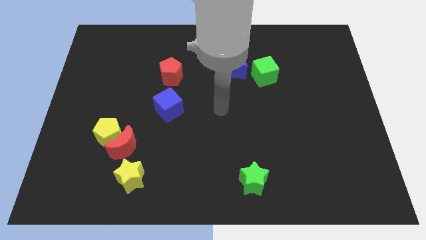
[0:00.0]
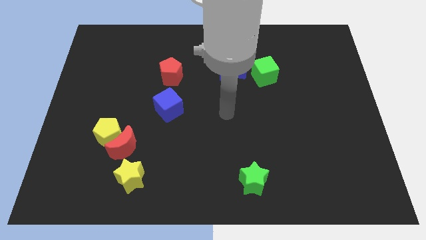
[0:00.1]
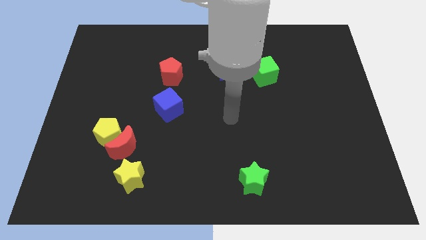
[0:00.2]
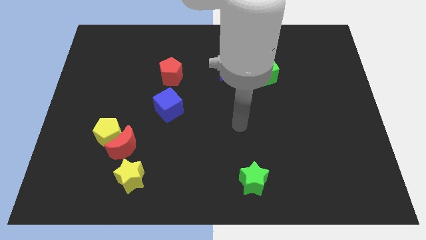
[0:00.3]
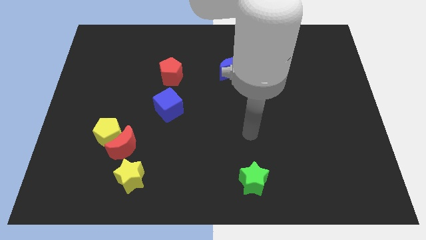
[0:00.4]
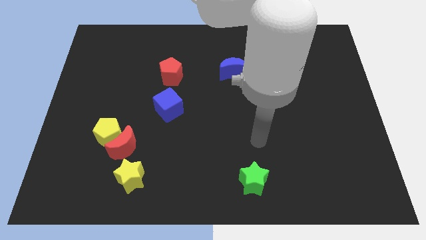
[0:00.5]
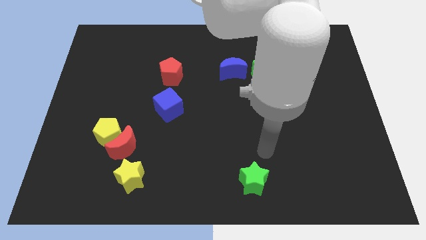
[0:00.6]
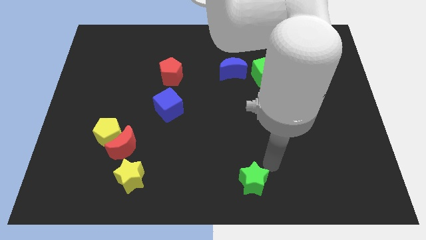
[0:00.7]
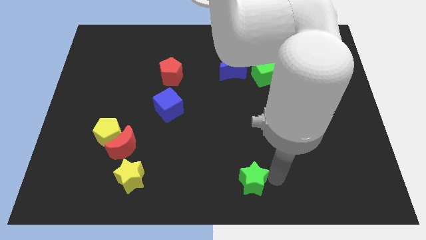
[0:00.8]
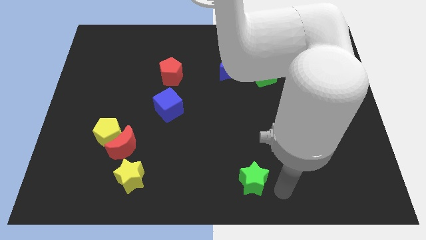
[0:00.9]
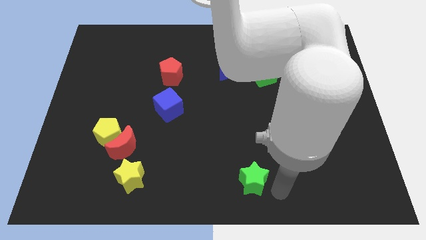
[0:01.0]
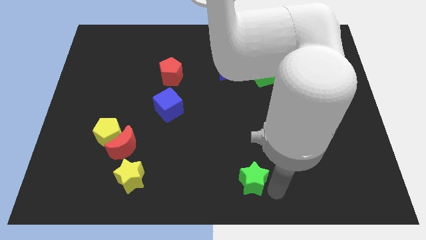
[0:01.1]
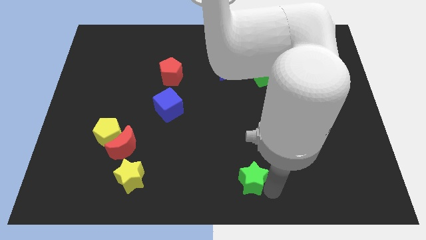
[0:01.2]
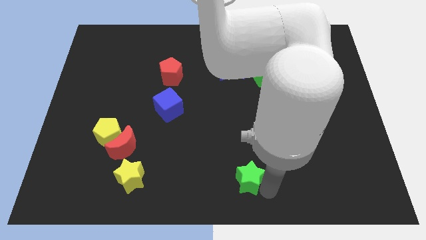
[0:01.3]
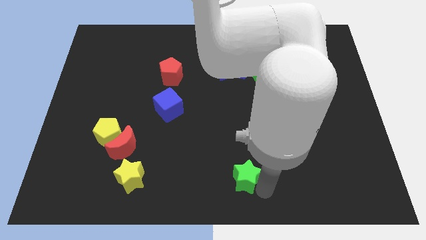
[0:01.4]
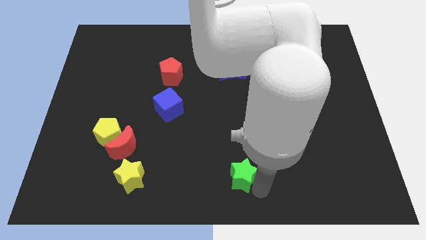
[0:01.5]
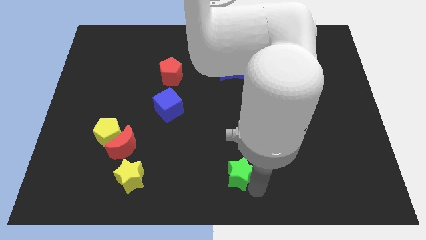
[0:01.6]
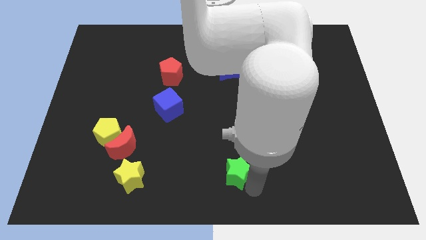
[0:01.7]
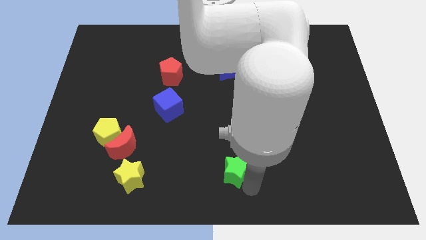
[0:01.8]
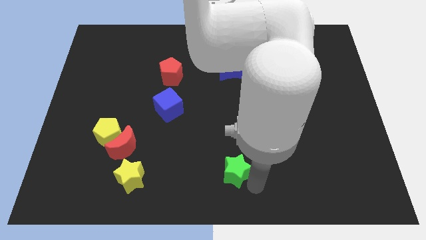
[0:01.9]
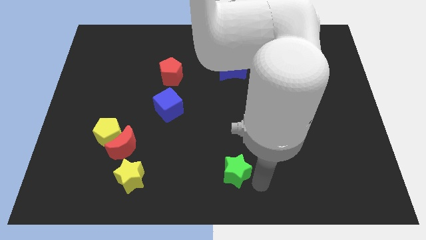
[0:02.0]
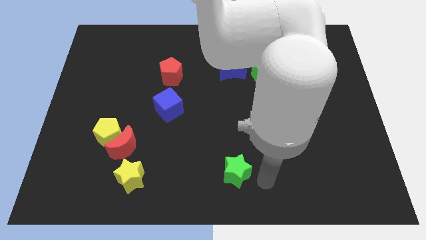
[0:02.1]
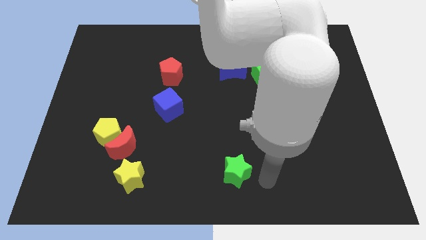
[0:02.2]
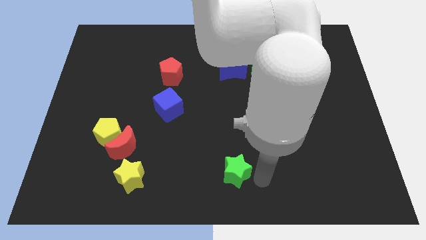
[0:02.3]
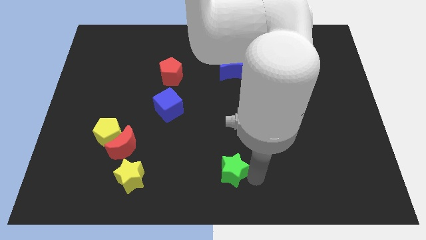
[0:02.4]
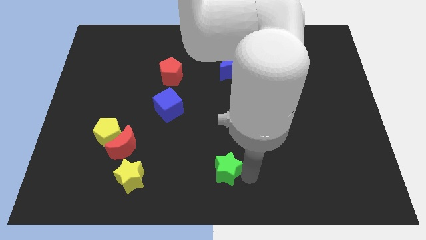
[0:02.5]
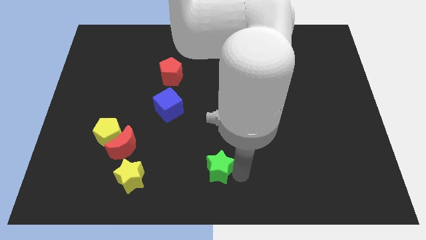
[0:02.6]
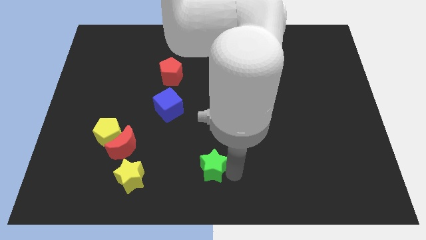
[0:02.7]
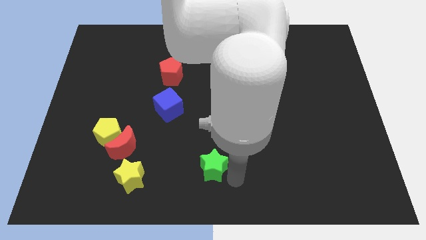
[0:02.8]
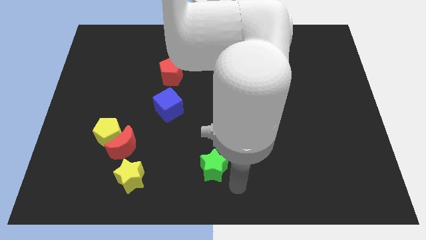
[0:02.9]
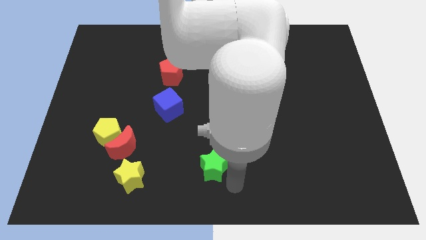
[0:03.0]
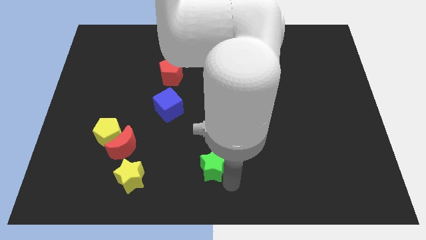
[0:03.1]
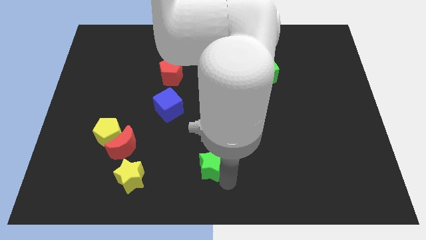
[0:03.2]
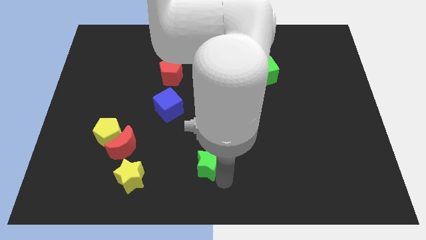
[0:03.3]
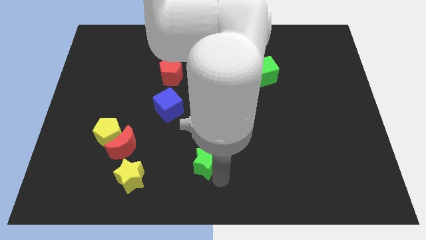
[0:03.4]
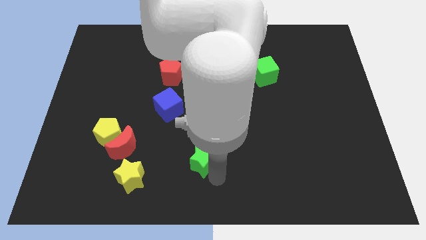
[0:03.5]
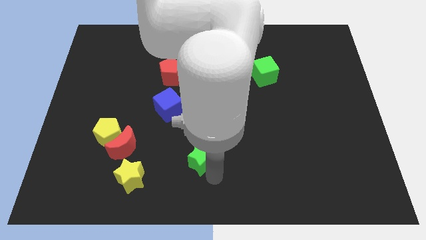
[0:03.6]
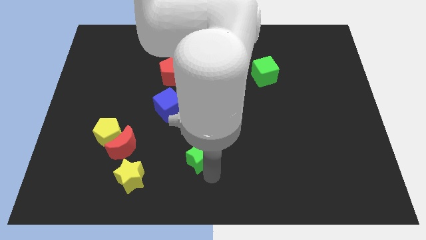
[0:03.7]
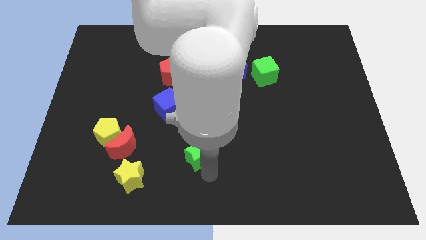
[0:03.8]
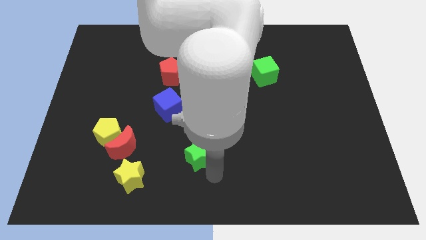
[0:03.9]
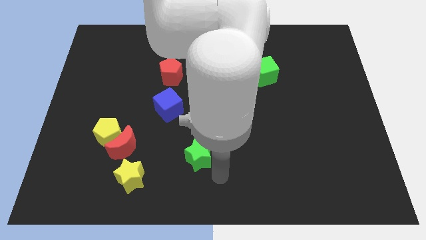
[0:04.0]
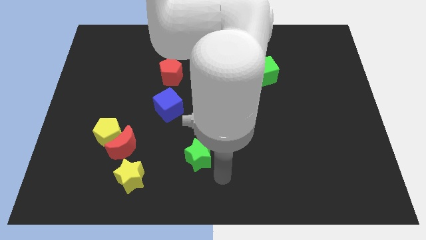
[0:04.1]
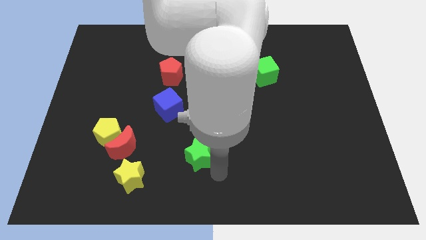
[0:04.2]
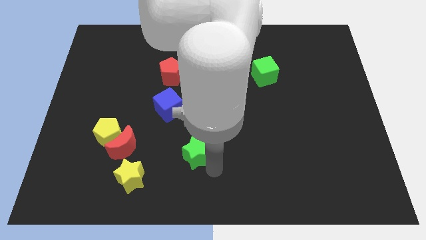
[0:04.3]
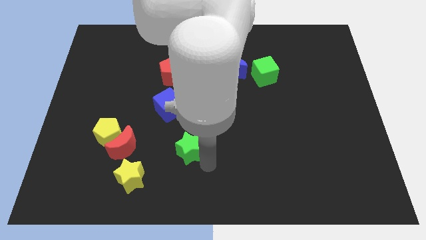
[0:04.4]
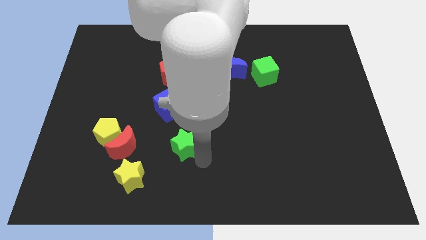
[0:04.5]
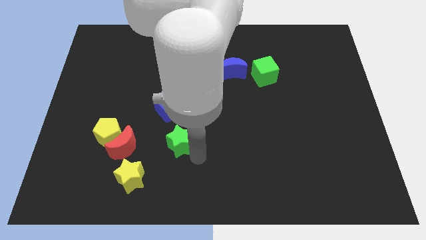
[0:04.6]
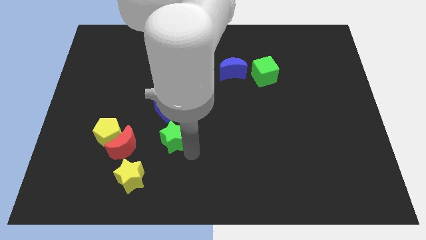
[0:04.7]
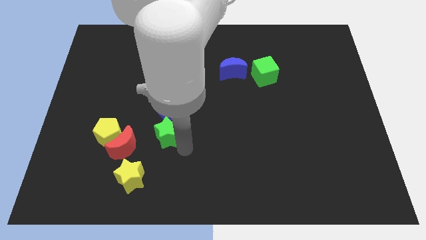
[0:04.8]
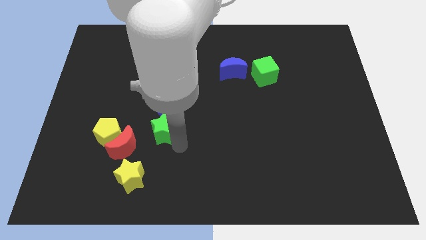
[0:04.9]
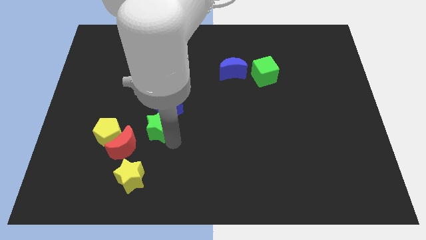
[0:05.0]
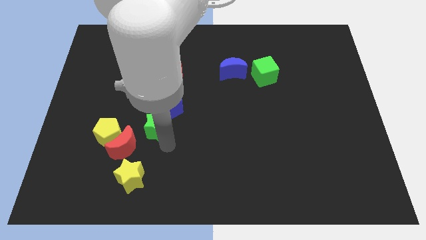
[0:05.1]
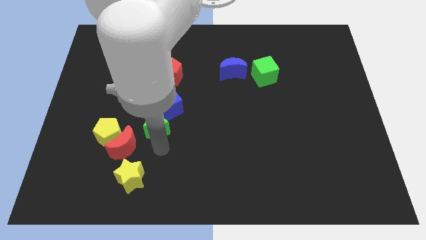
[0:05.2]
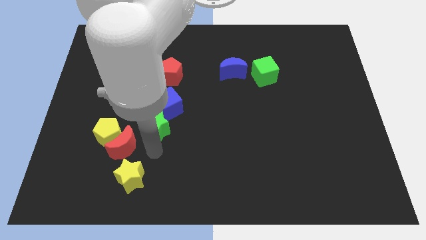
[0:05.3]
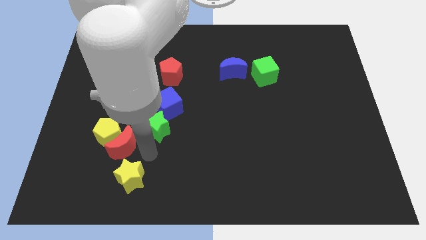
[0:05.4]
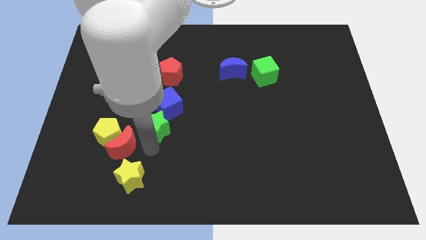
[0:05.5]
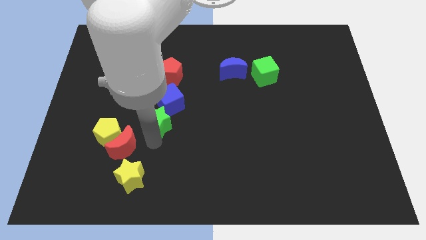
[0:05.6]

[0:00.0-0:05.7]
push the green star to the bottom of the red pentagon

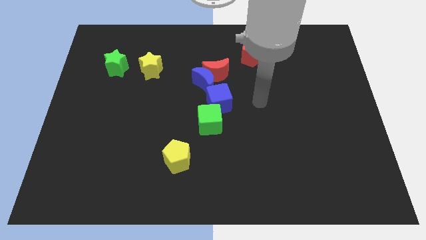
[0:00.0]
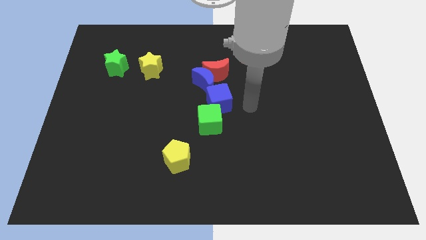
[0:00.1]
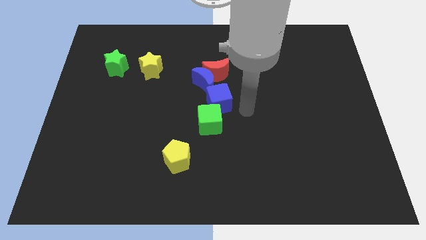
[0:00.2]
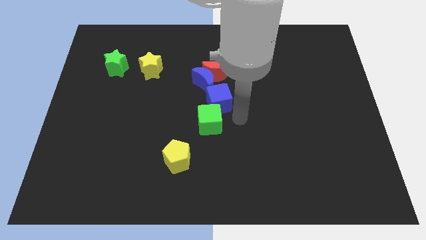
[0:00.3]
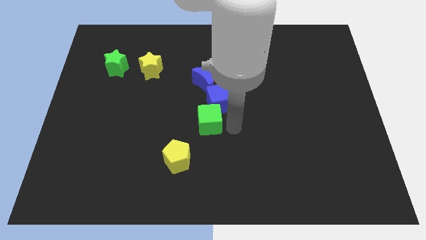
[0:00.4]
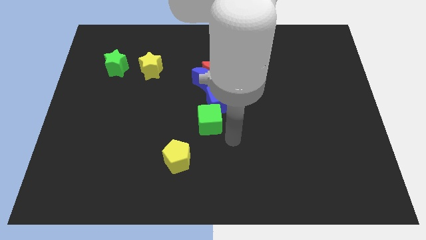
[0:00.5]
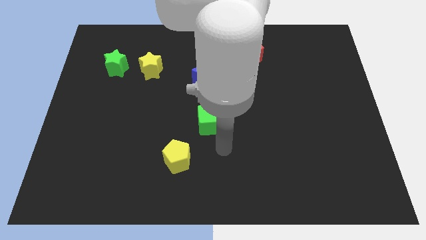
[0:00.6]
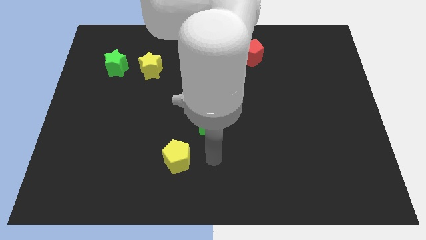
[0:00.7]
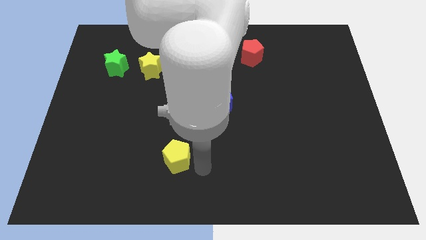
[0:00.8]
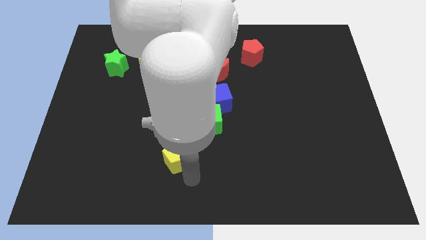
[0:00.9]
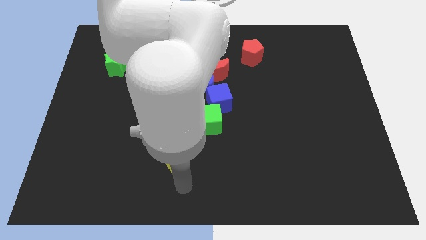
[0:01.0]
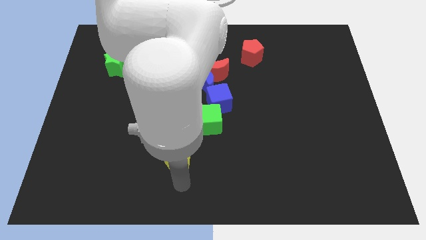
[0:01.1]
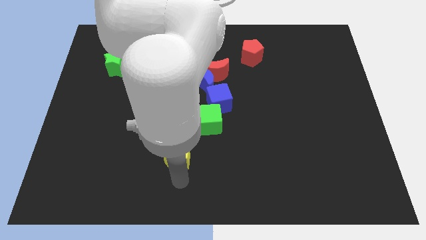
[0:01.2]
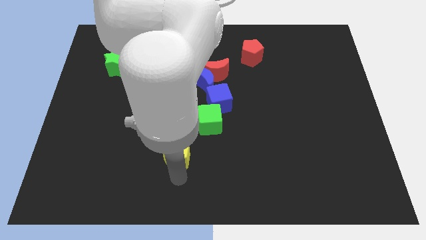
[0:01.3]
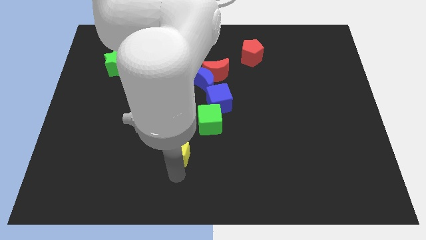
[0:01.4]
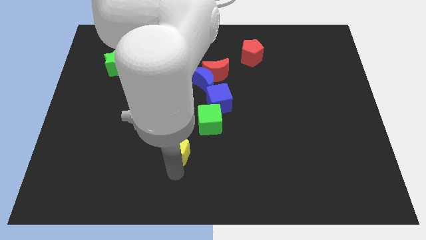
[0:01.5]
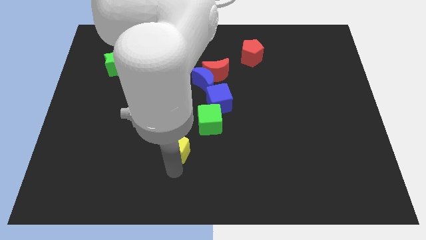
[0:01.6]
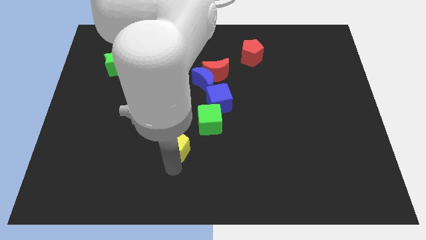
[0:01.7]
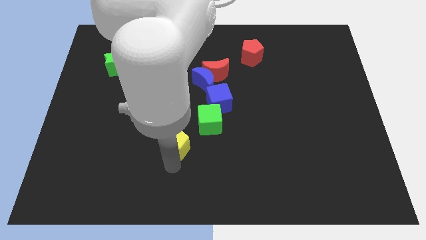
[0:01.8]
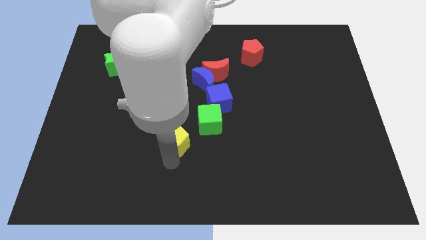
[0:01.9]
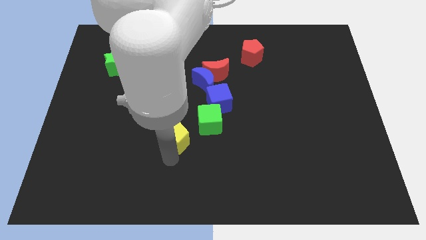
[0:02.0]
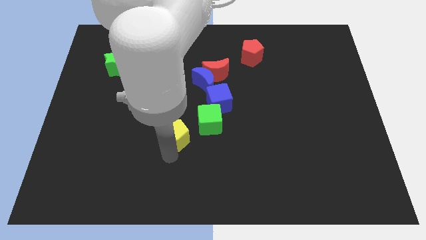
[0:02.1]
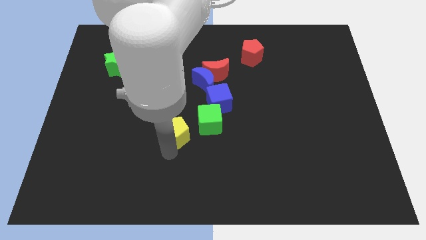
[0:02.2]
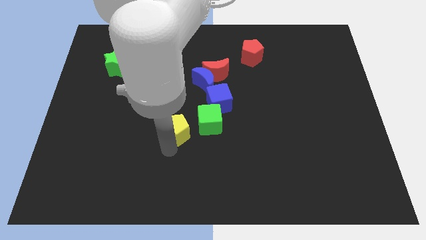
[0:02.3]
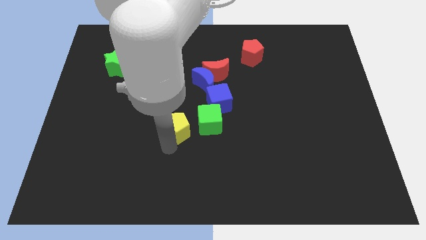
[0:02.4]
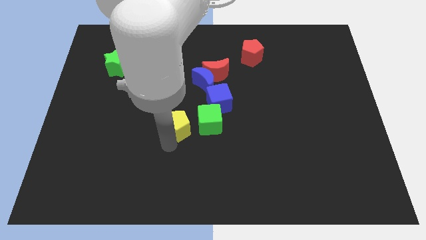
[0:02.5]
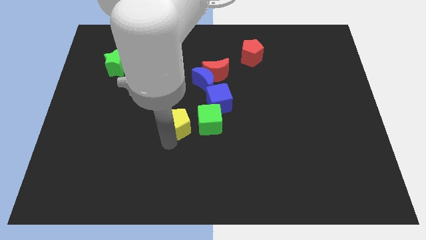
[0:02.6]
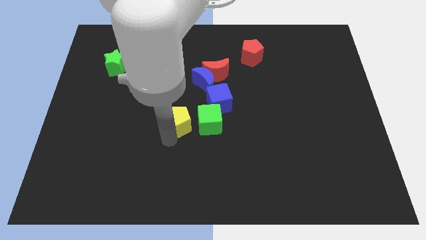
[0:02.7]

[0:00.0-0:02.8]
move the yellow pentagon diagonally up and to the left of the green cube
